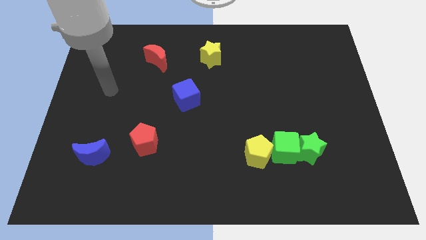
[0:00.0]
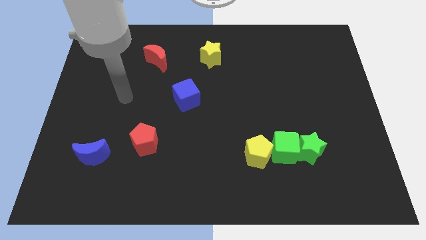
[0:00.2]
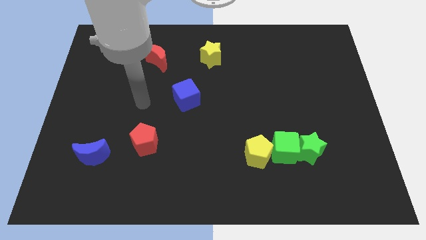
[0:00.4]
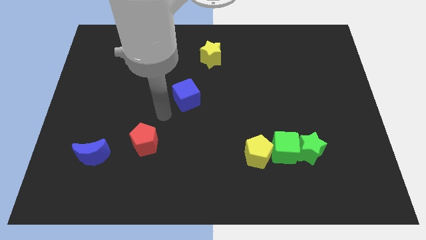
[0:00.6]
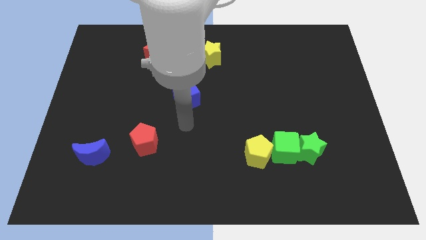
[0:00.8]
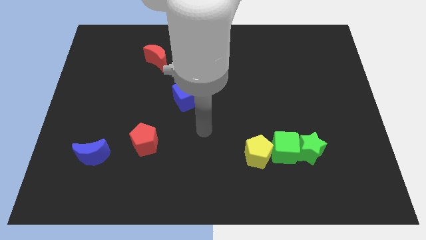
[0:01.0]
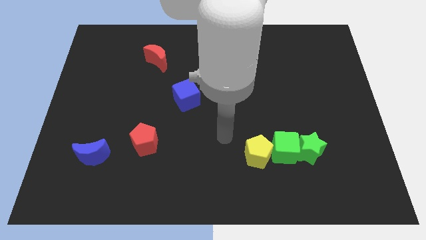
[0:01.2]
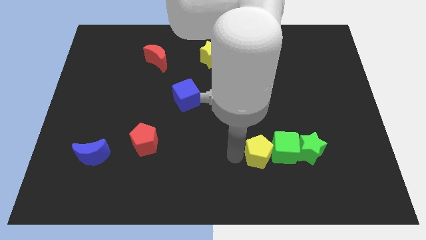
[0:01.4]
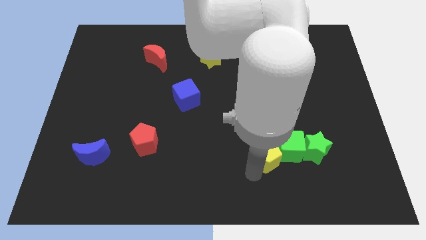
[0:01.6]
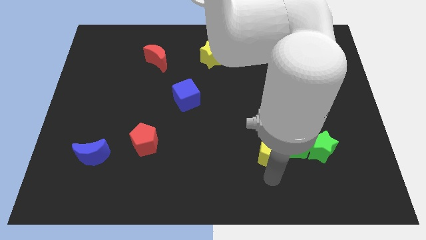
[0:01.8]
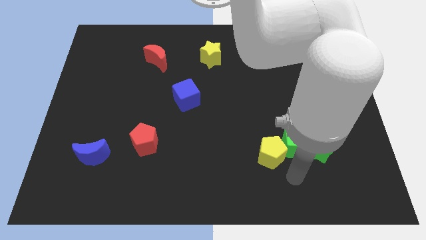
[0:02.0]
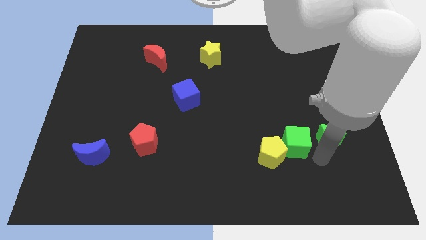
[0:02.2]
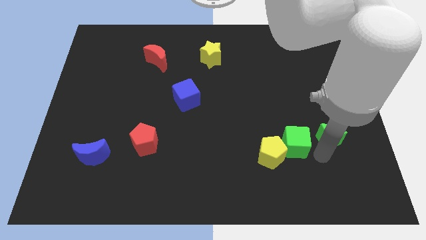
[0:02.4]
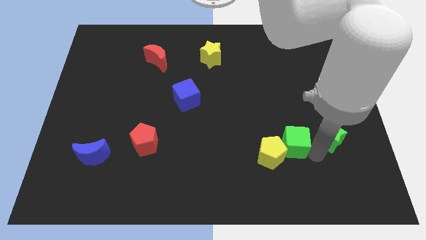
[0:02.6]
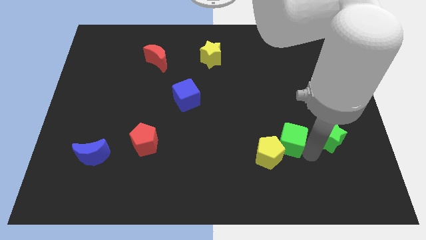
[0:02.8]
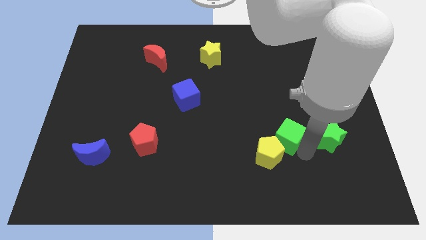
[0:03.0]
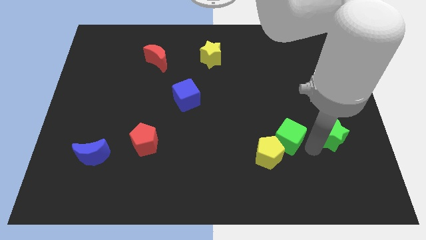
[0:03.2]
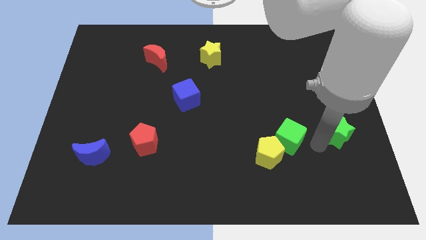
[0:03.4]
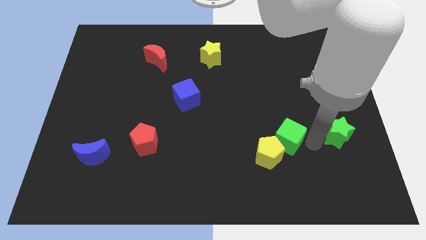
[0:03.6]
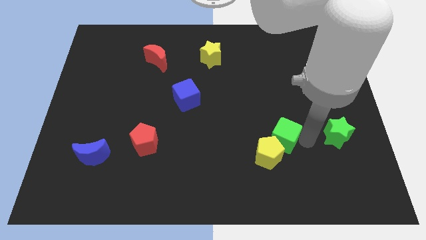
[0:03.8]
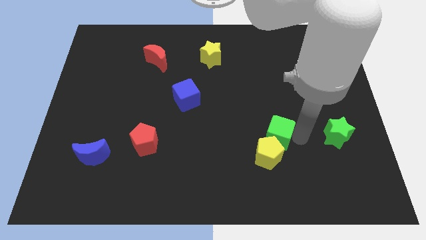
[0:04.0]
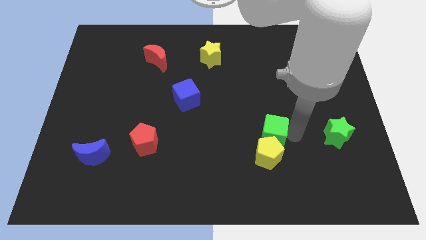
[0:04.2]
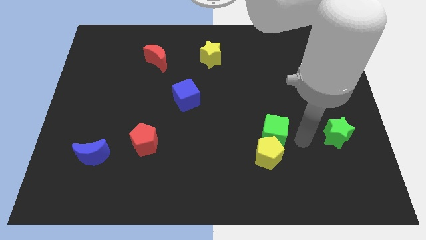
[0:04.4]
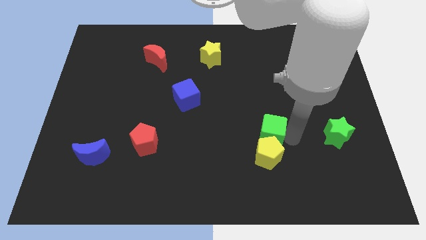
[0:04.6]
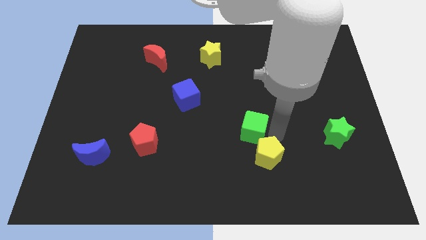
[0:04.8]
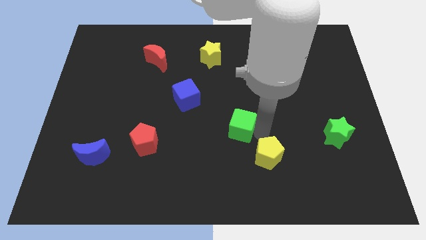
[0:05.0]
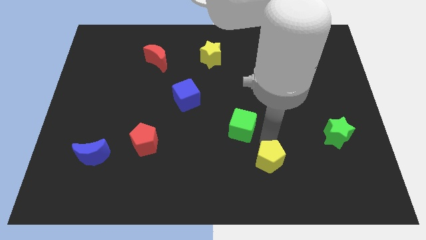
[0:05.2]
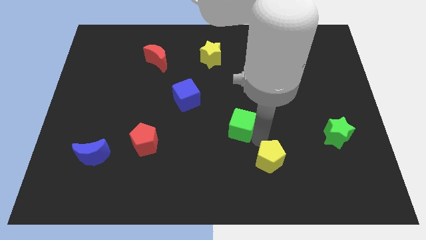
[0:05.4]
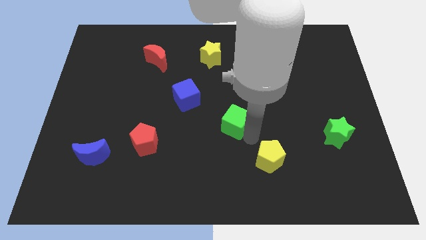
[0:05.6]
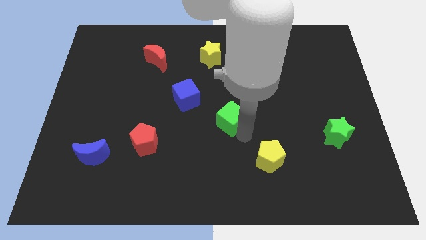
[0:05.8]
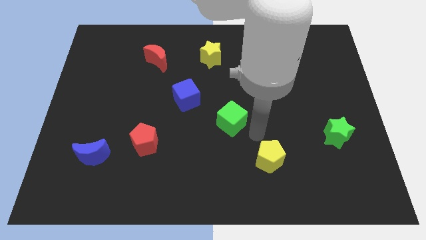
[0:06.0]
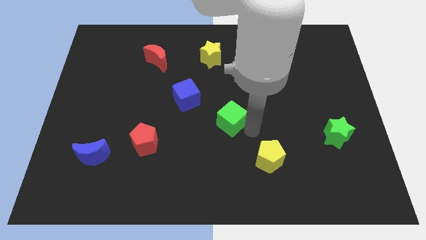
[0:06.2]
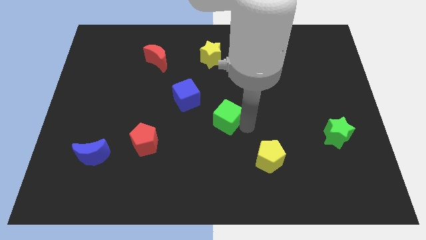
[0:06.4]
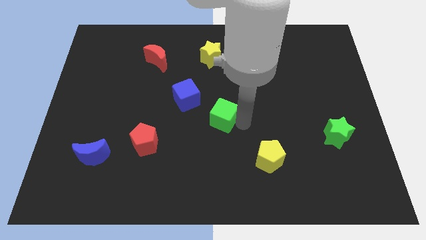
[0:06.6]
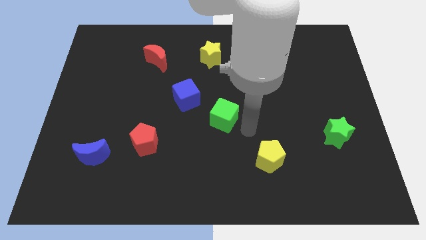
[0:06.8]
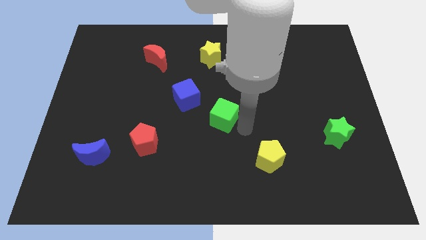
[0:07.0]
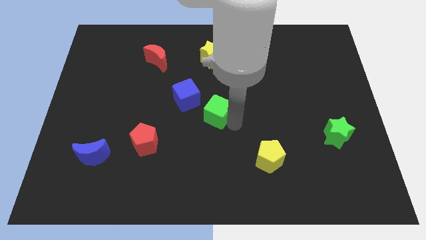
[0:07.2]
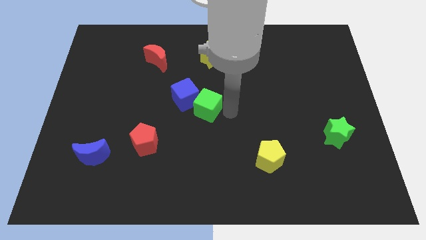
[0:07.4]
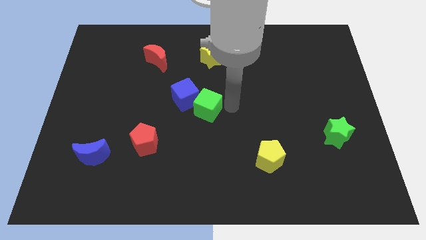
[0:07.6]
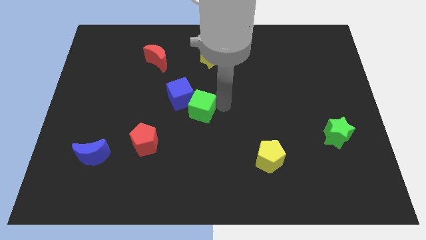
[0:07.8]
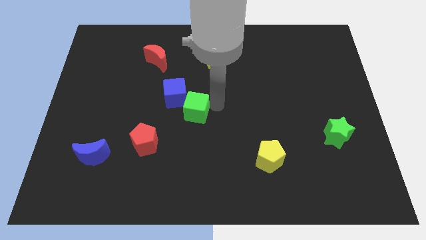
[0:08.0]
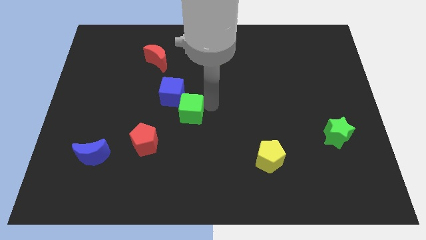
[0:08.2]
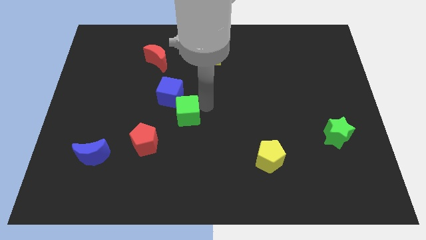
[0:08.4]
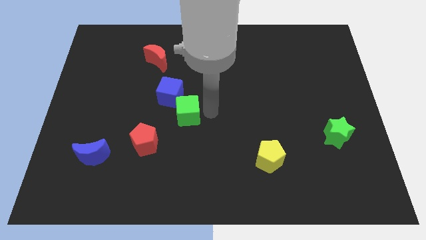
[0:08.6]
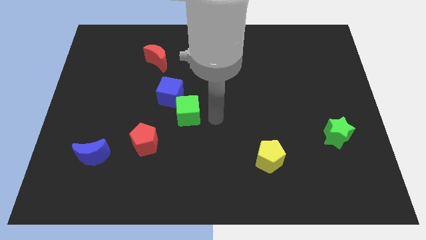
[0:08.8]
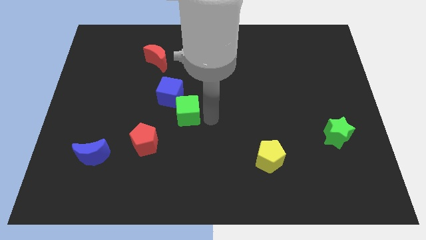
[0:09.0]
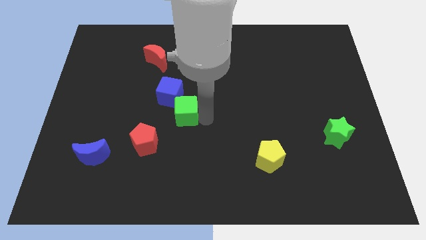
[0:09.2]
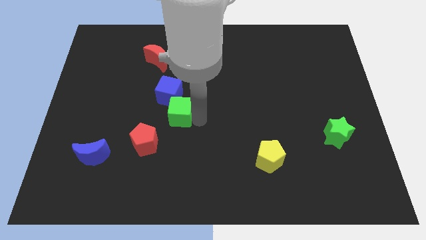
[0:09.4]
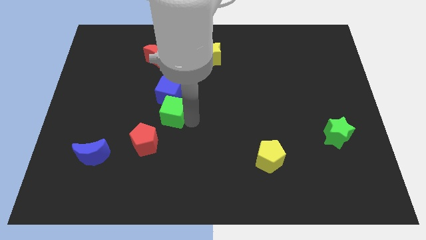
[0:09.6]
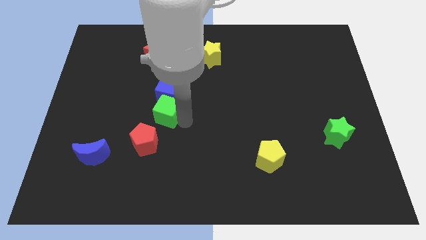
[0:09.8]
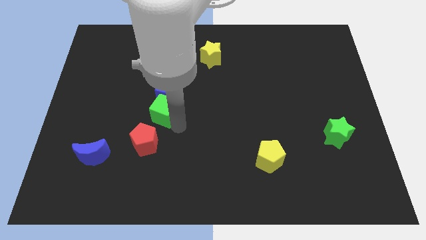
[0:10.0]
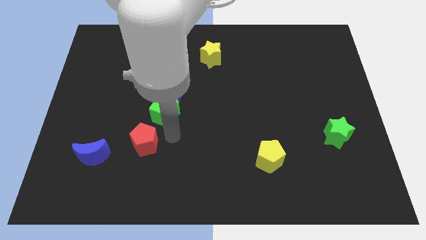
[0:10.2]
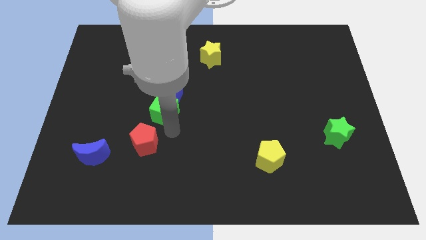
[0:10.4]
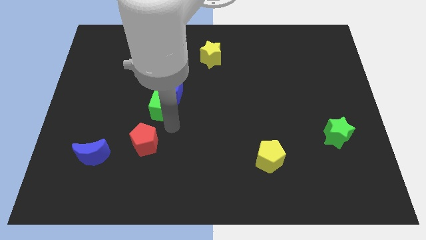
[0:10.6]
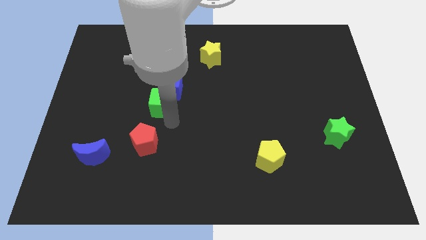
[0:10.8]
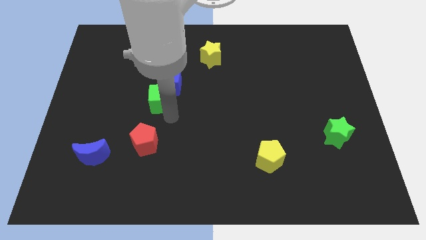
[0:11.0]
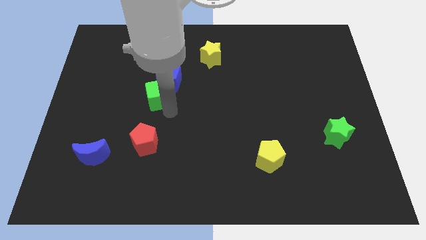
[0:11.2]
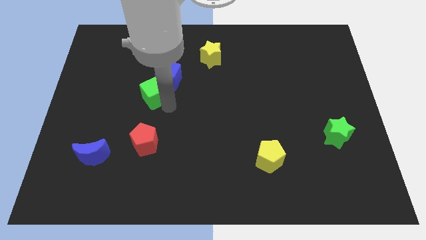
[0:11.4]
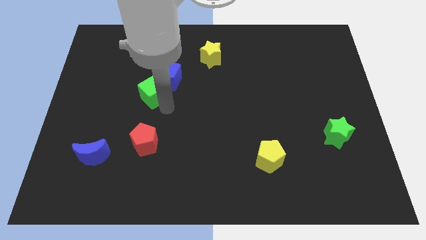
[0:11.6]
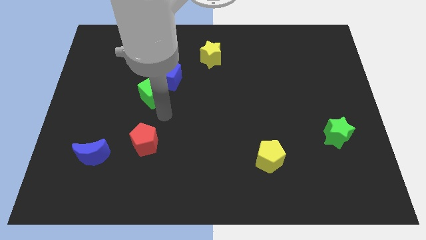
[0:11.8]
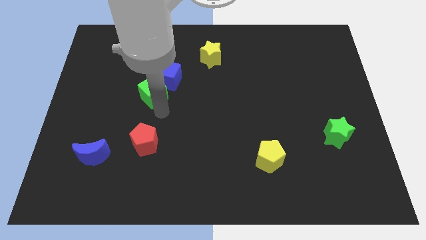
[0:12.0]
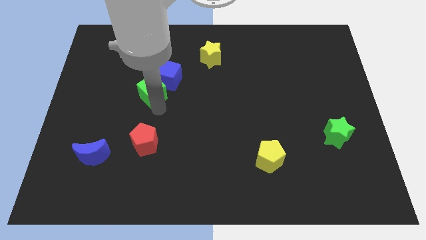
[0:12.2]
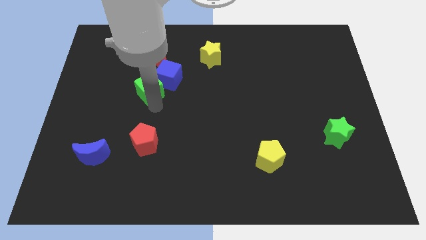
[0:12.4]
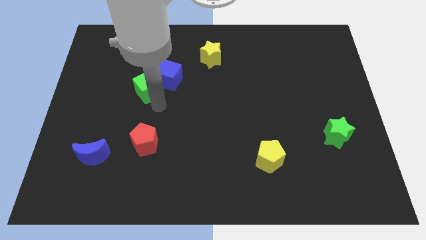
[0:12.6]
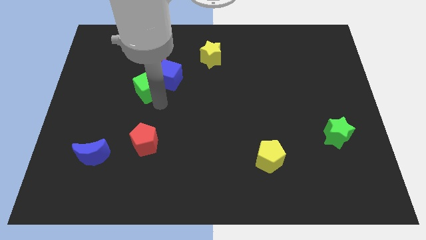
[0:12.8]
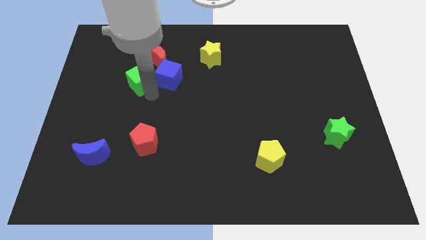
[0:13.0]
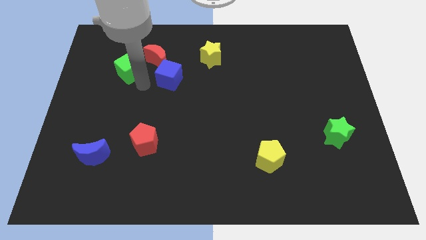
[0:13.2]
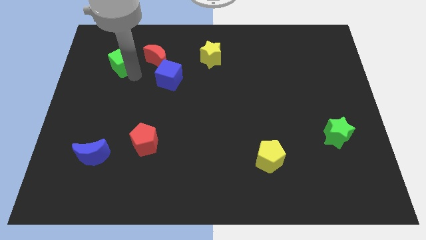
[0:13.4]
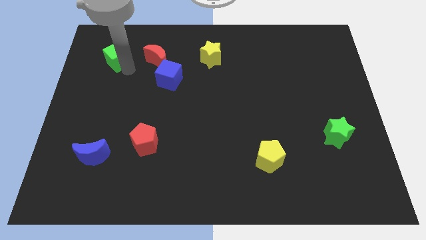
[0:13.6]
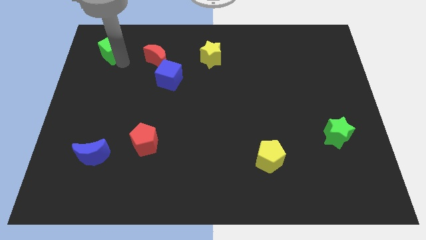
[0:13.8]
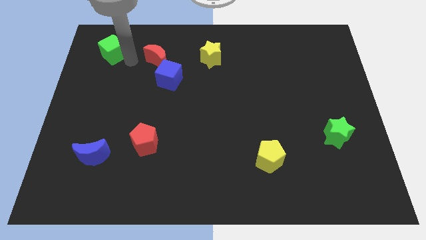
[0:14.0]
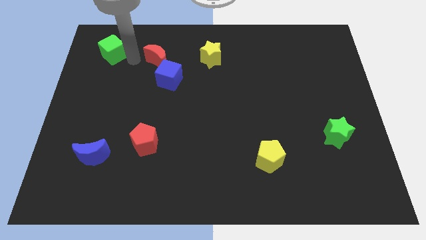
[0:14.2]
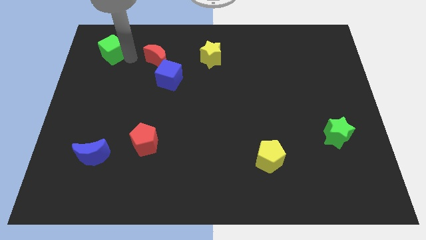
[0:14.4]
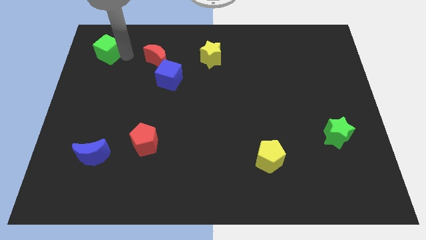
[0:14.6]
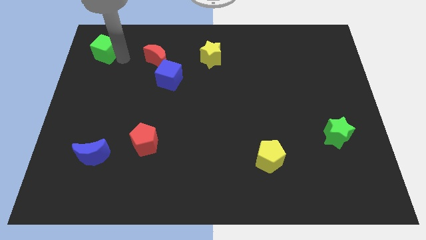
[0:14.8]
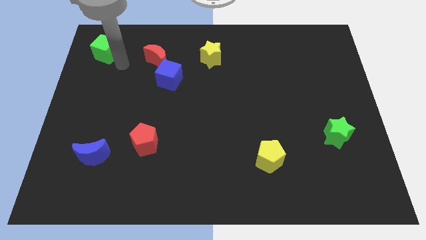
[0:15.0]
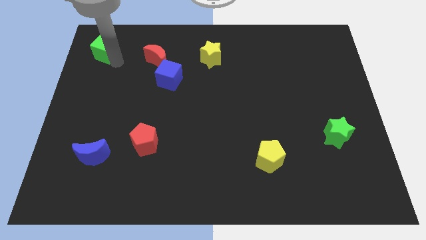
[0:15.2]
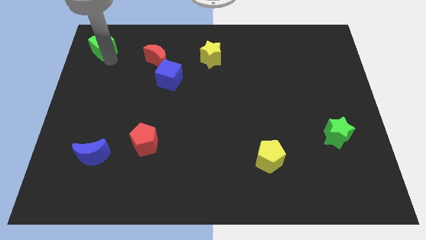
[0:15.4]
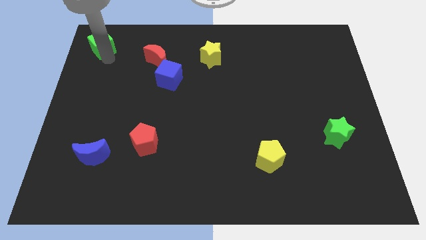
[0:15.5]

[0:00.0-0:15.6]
put the green cube to the top left corner
